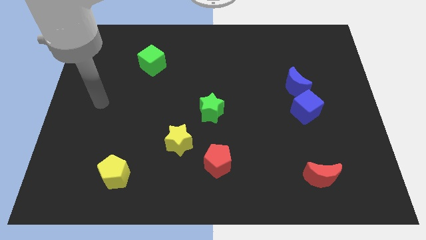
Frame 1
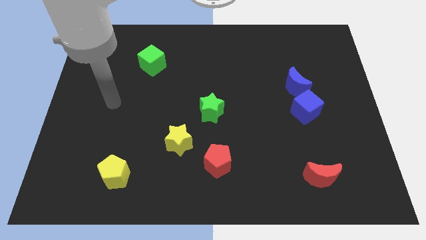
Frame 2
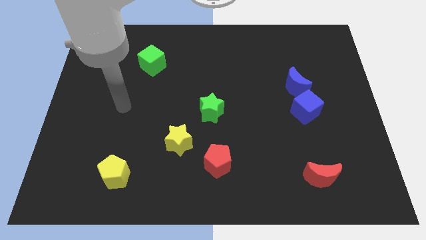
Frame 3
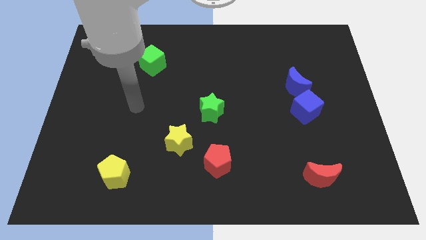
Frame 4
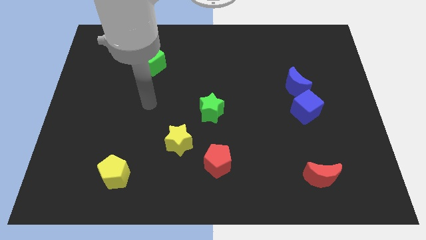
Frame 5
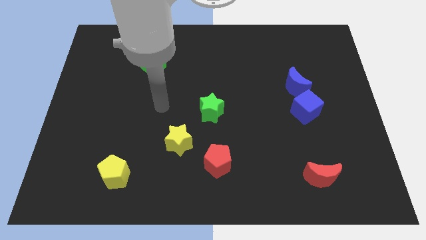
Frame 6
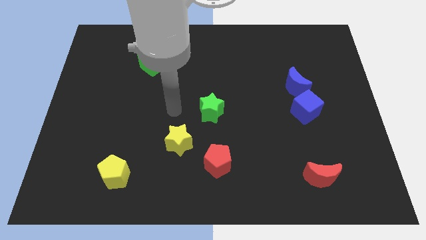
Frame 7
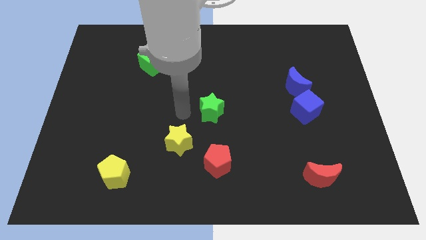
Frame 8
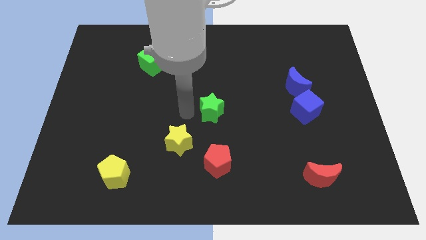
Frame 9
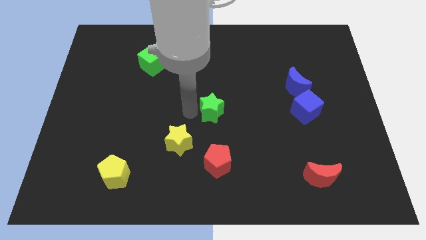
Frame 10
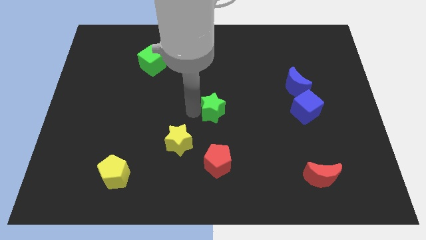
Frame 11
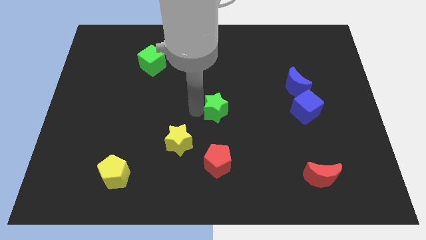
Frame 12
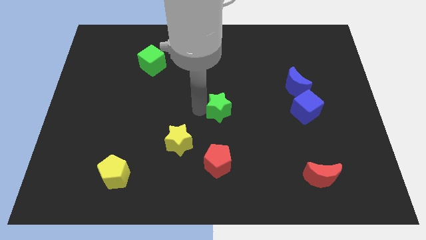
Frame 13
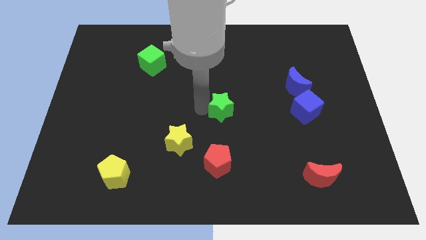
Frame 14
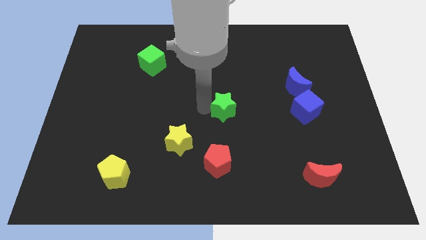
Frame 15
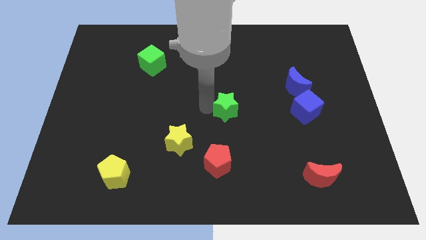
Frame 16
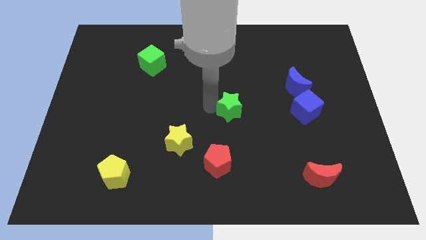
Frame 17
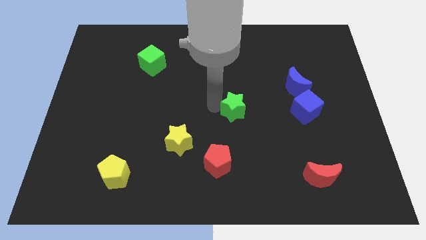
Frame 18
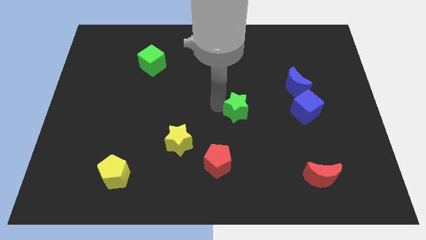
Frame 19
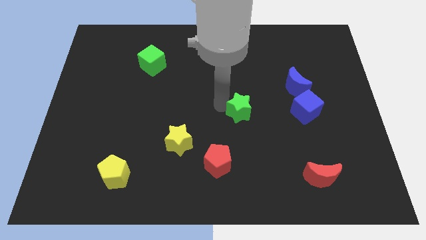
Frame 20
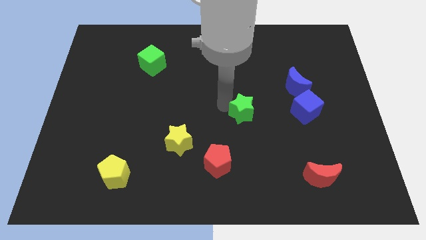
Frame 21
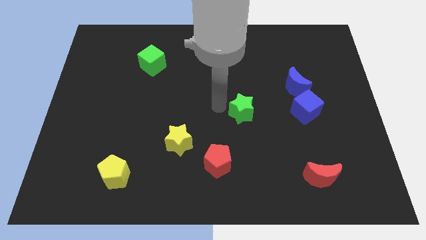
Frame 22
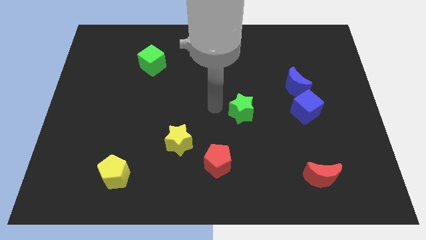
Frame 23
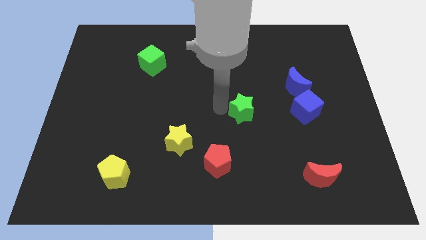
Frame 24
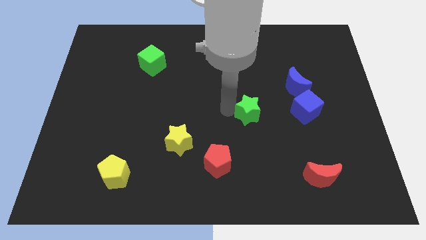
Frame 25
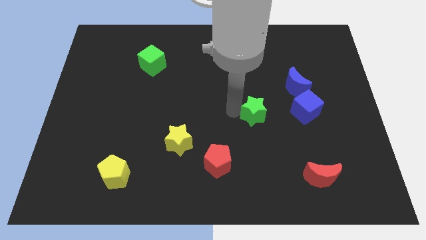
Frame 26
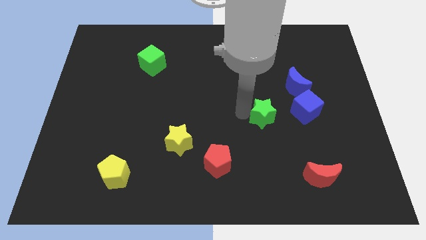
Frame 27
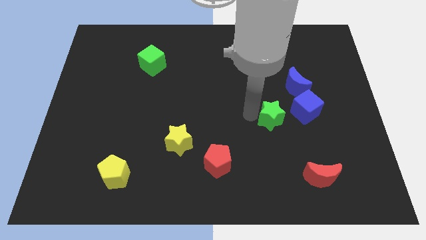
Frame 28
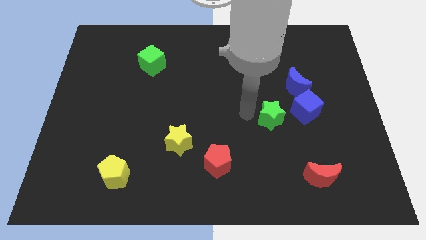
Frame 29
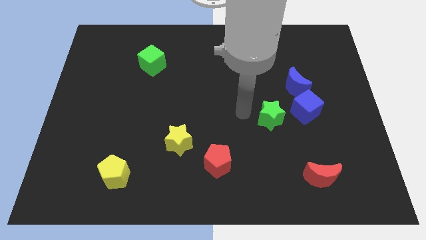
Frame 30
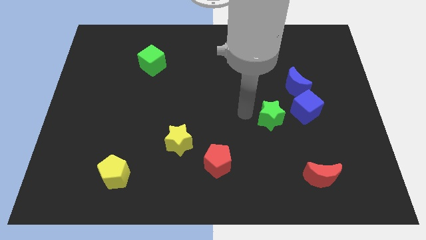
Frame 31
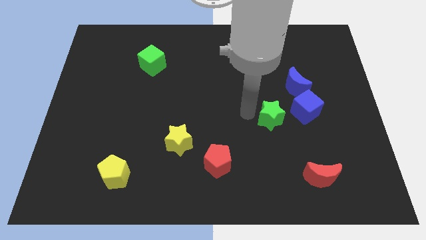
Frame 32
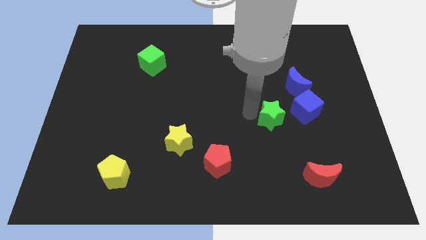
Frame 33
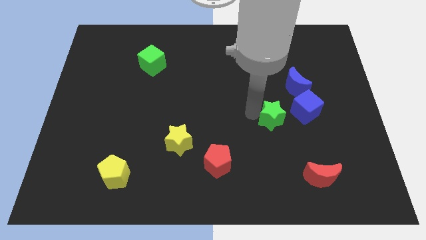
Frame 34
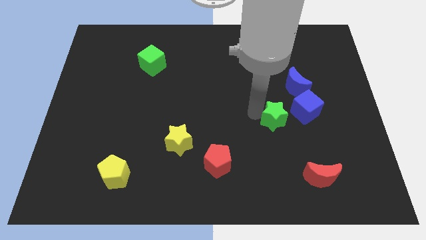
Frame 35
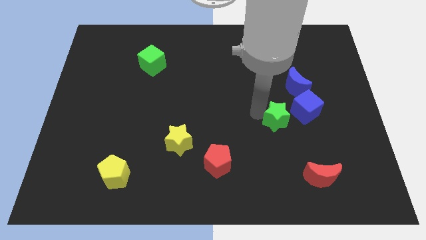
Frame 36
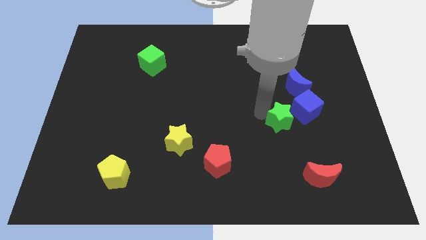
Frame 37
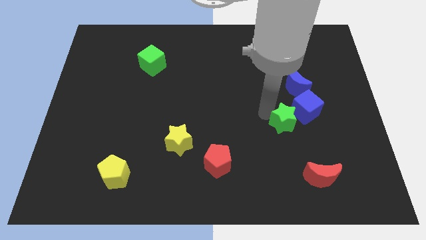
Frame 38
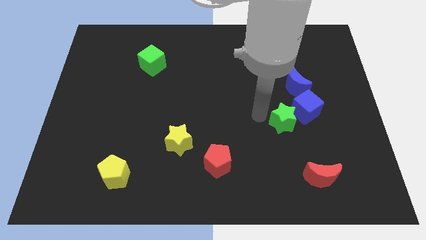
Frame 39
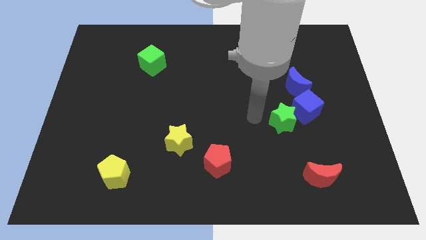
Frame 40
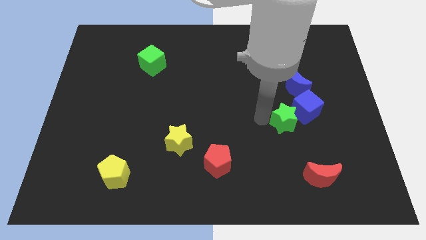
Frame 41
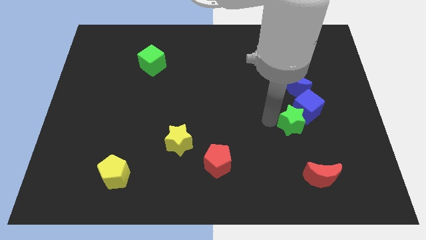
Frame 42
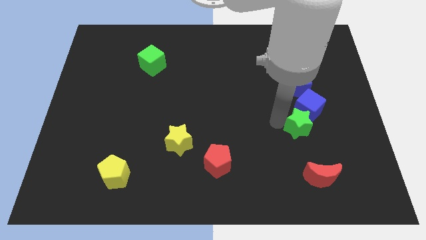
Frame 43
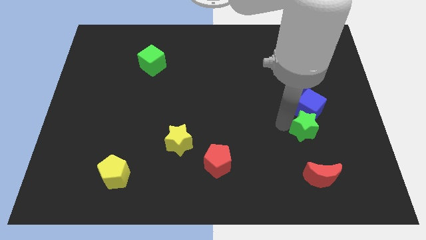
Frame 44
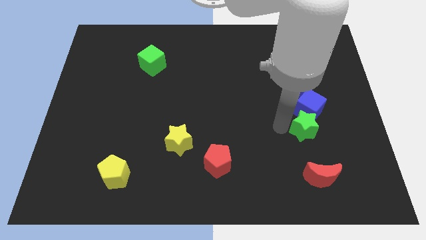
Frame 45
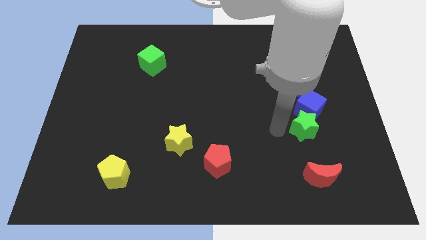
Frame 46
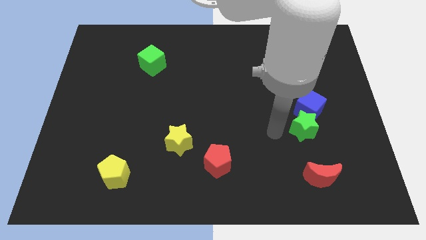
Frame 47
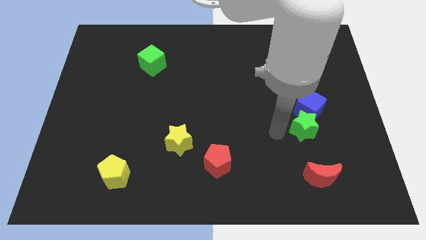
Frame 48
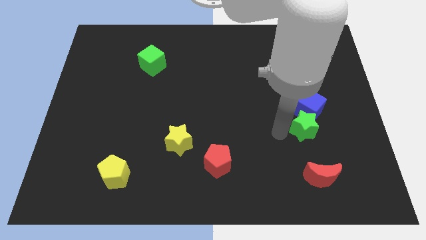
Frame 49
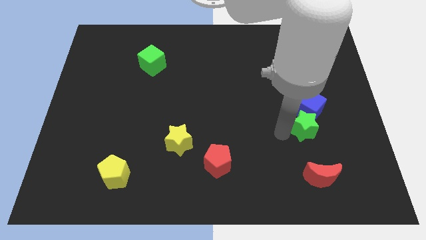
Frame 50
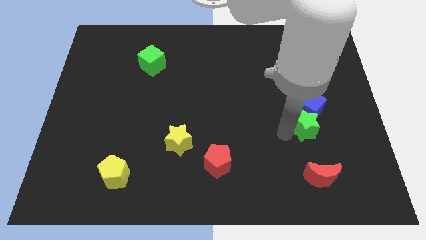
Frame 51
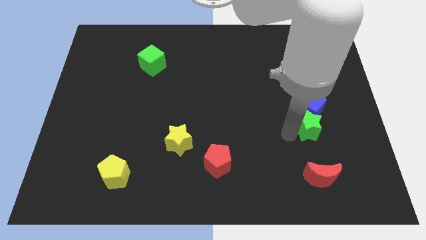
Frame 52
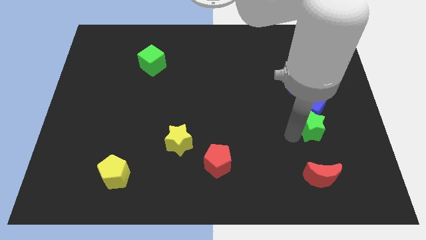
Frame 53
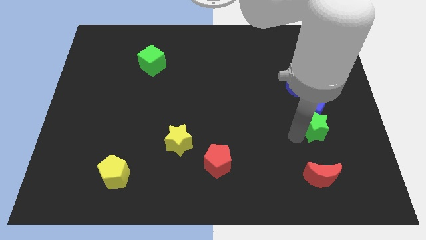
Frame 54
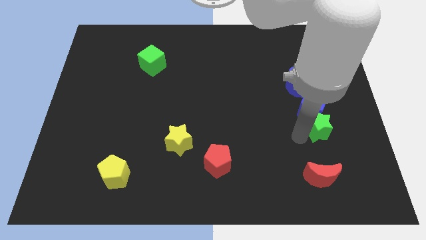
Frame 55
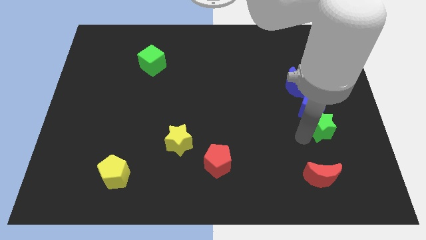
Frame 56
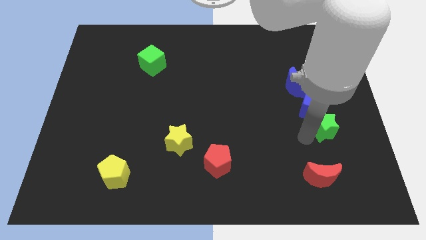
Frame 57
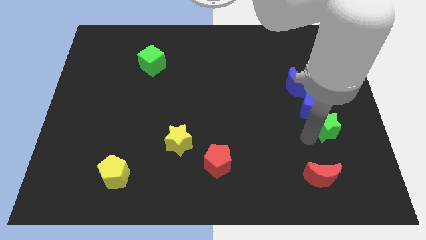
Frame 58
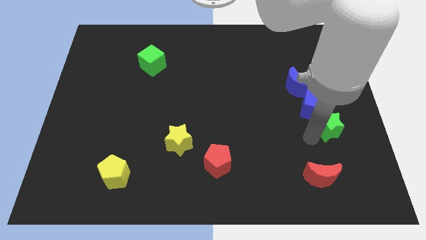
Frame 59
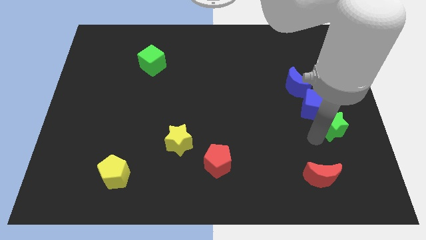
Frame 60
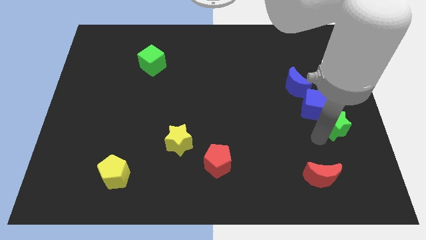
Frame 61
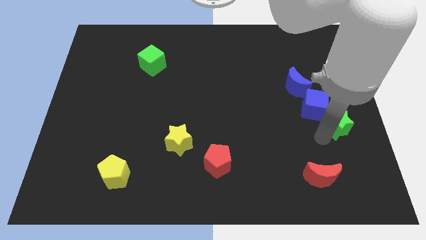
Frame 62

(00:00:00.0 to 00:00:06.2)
put the green star to the right side

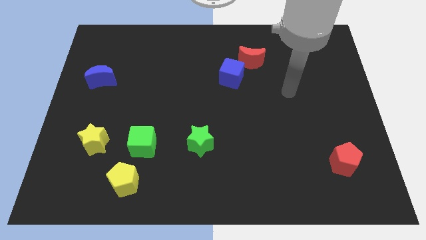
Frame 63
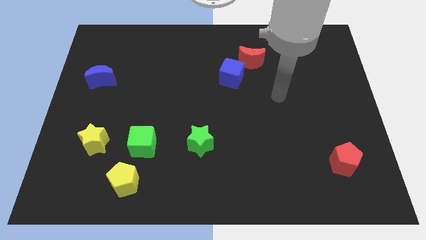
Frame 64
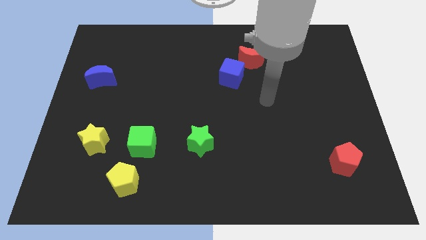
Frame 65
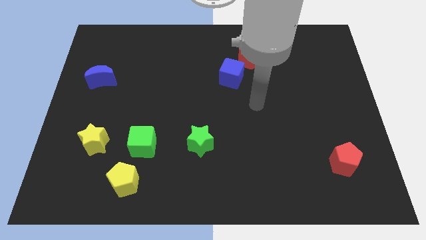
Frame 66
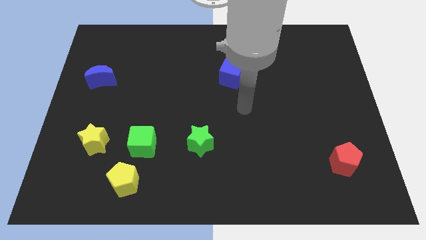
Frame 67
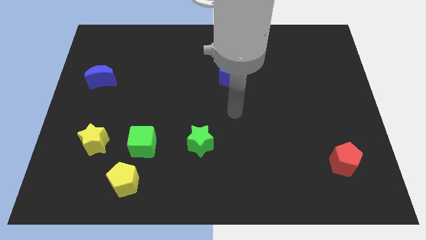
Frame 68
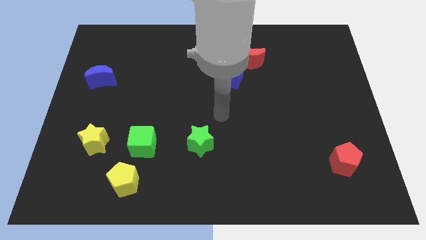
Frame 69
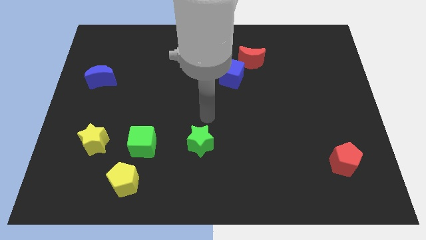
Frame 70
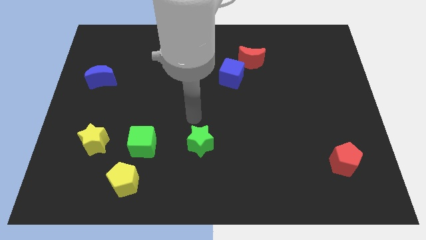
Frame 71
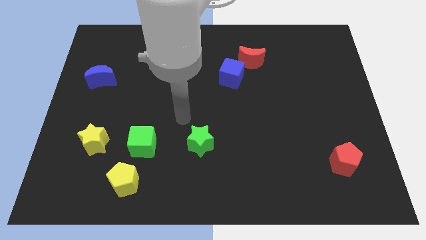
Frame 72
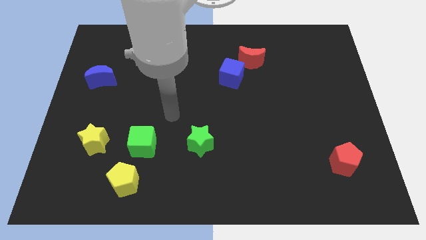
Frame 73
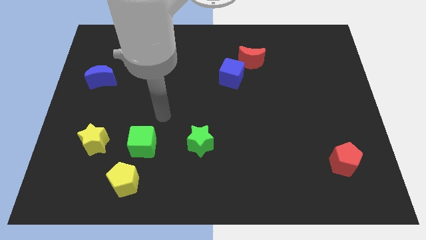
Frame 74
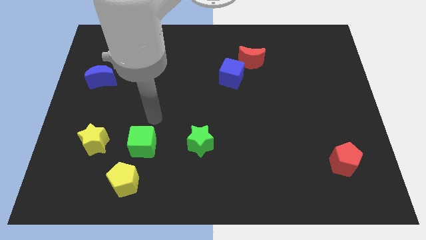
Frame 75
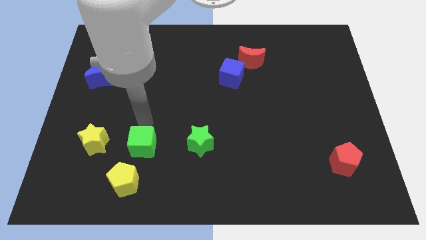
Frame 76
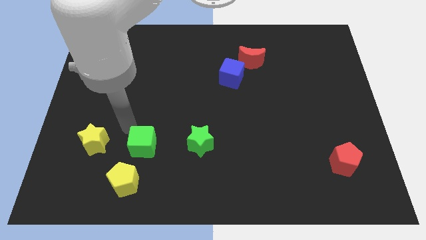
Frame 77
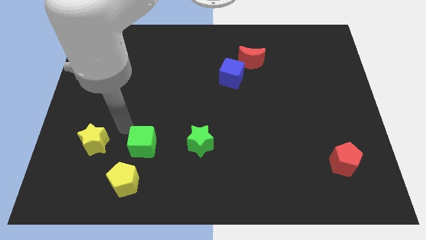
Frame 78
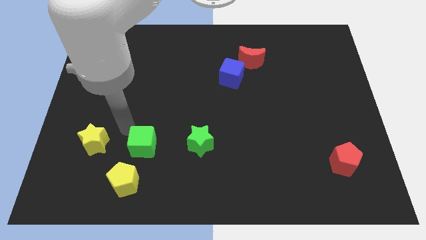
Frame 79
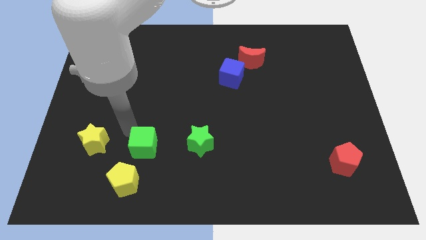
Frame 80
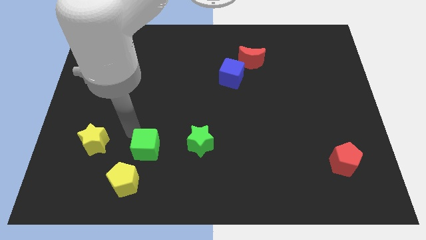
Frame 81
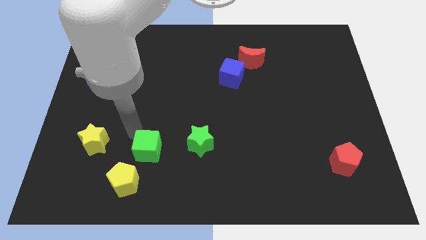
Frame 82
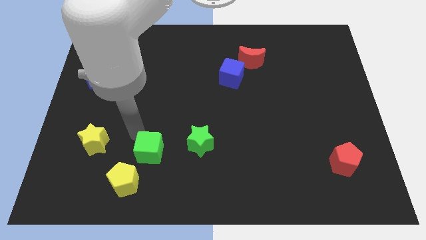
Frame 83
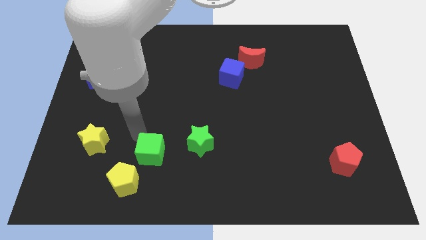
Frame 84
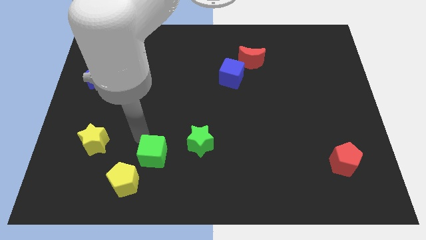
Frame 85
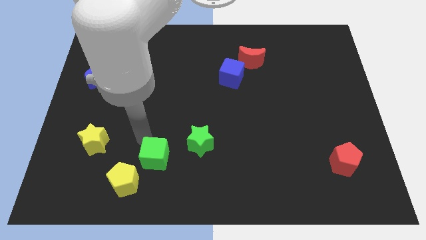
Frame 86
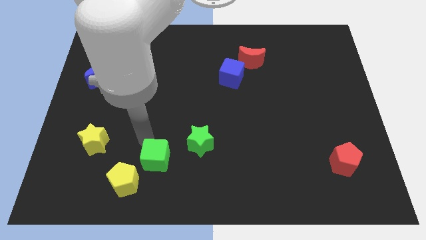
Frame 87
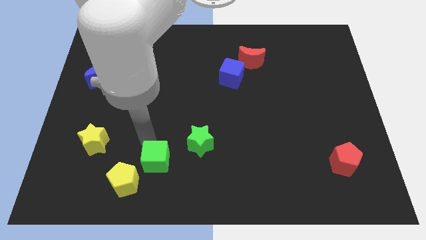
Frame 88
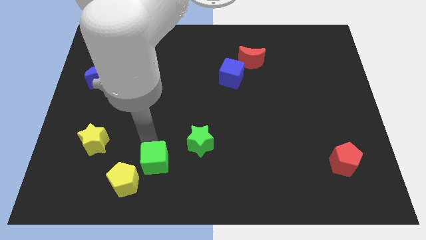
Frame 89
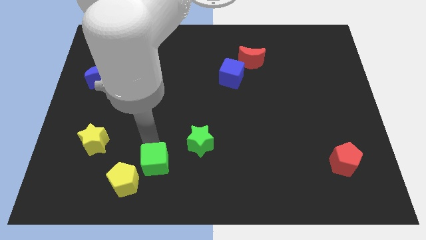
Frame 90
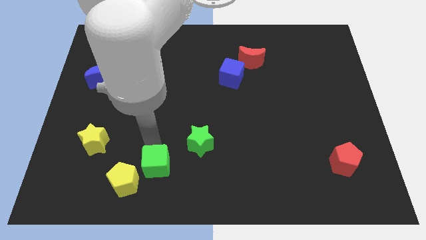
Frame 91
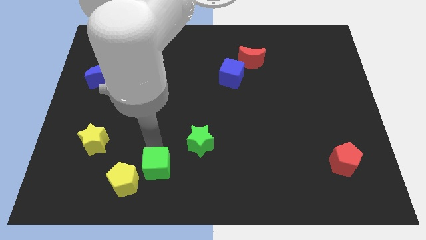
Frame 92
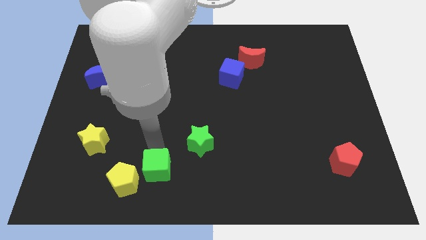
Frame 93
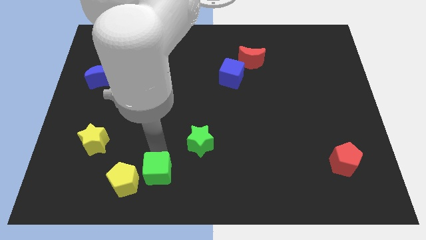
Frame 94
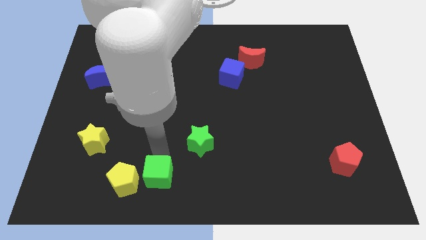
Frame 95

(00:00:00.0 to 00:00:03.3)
put the green cube to the bottom
